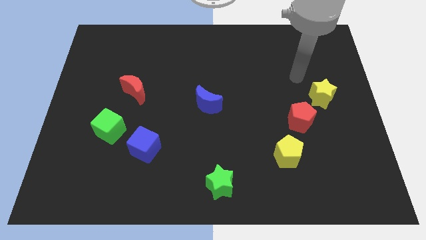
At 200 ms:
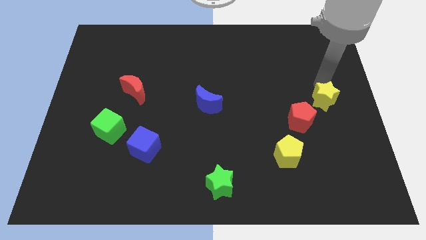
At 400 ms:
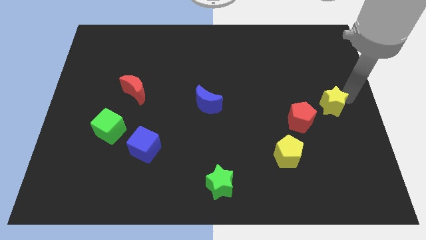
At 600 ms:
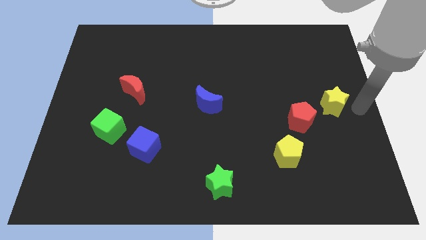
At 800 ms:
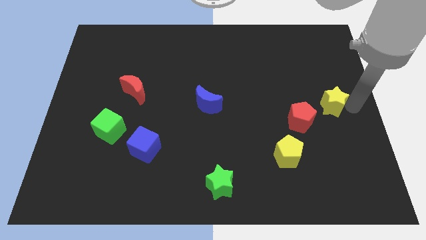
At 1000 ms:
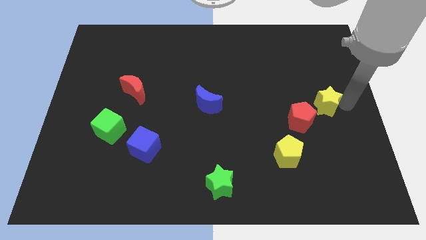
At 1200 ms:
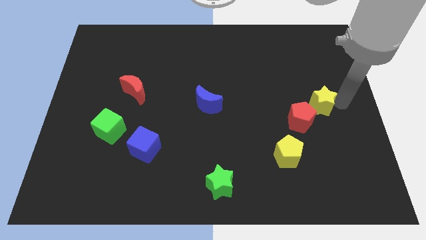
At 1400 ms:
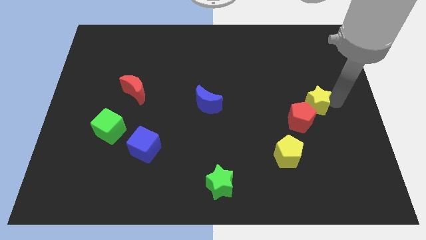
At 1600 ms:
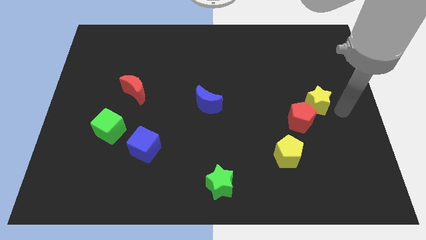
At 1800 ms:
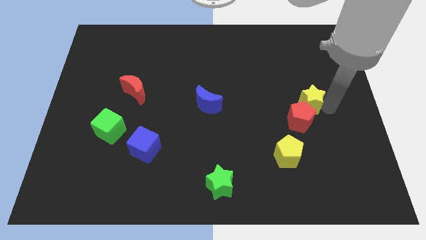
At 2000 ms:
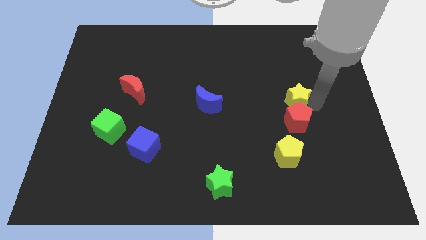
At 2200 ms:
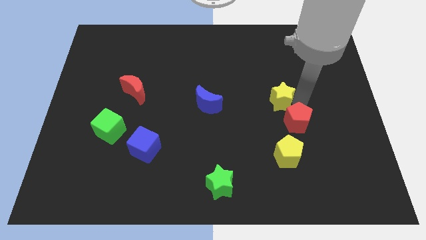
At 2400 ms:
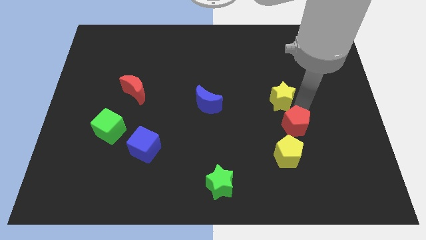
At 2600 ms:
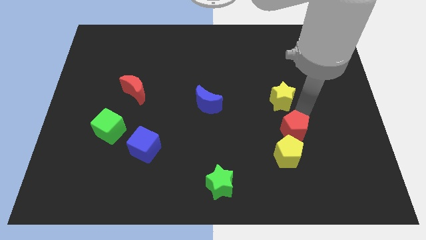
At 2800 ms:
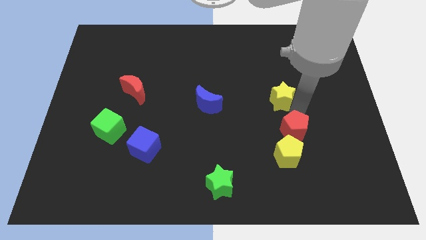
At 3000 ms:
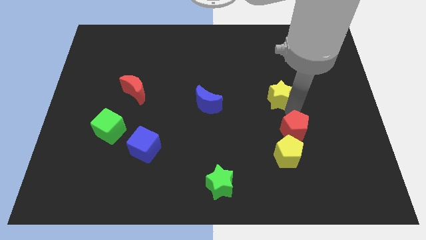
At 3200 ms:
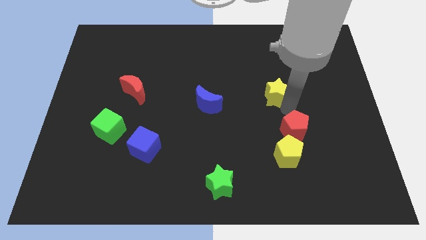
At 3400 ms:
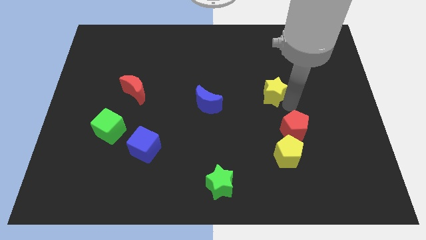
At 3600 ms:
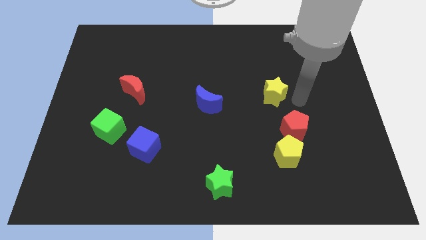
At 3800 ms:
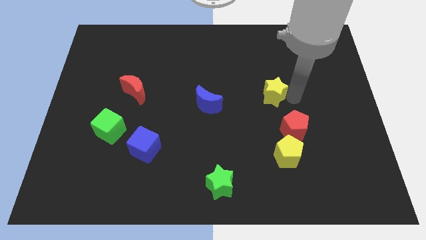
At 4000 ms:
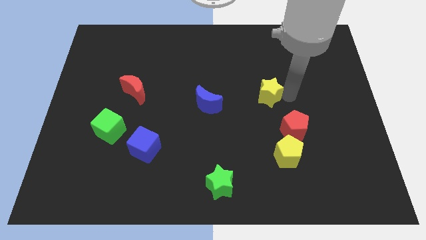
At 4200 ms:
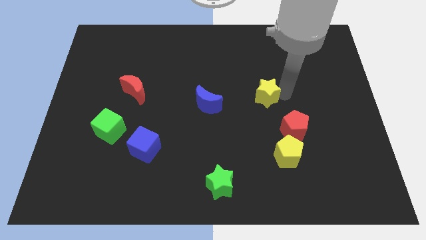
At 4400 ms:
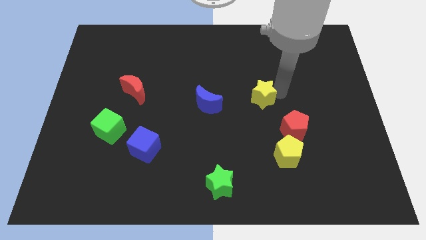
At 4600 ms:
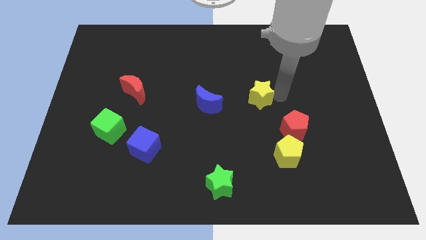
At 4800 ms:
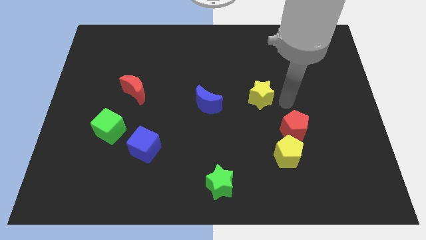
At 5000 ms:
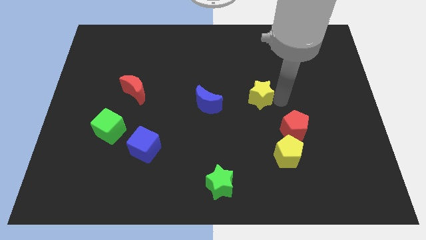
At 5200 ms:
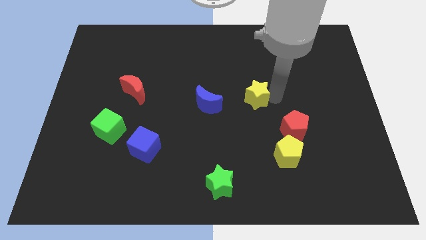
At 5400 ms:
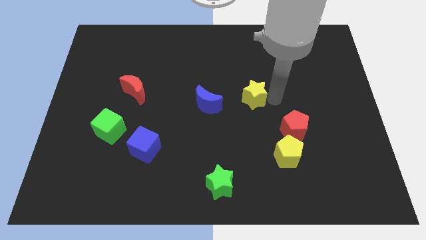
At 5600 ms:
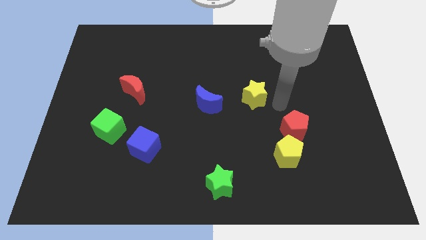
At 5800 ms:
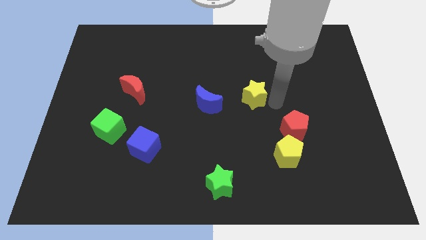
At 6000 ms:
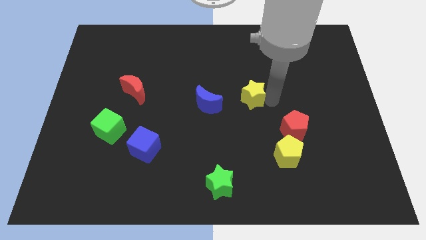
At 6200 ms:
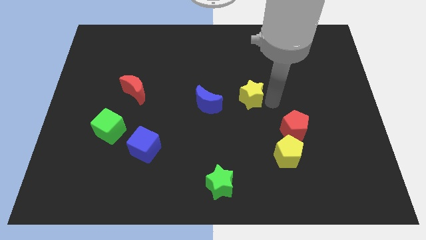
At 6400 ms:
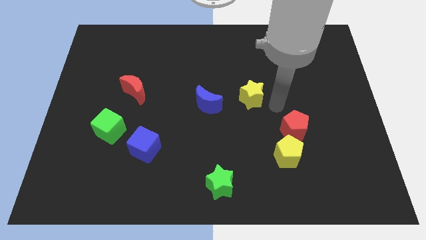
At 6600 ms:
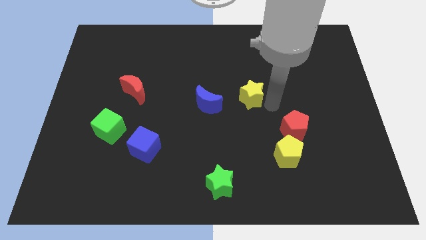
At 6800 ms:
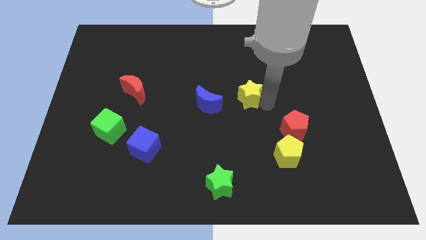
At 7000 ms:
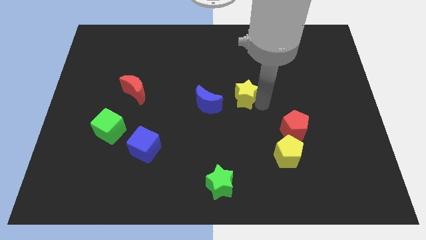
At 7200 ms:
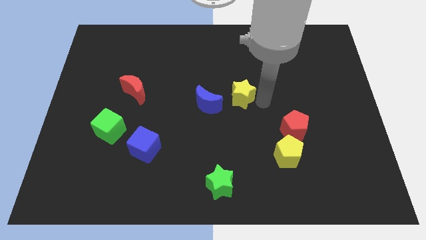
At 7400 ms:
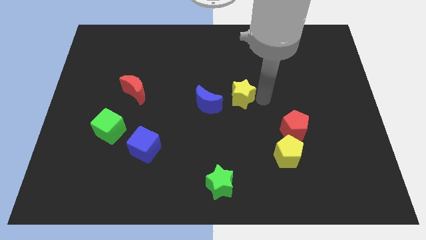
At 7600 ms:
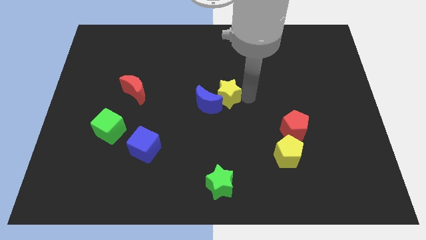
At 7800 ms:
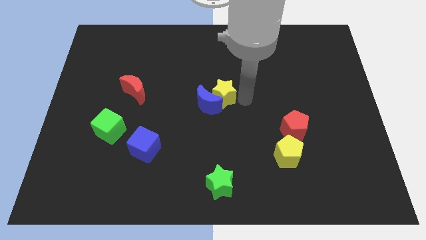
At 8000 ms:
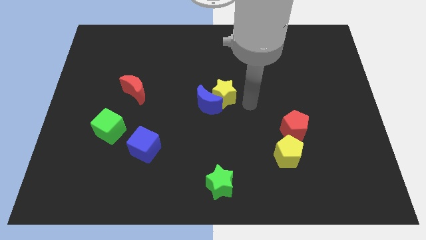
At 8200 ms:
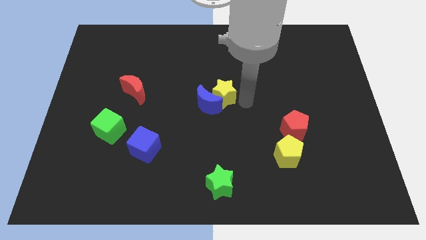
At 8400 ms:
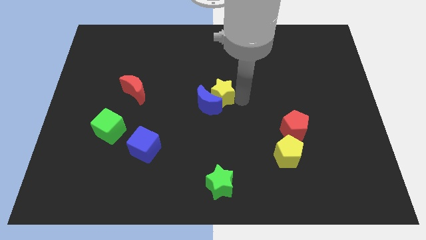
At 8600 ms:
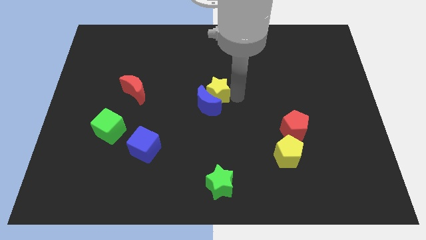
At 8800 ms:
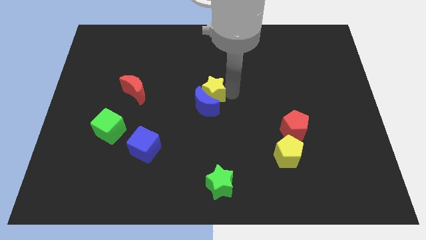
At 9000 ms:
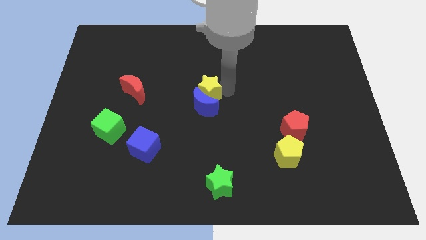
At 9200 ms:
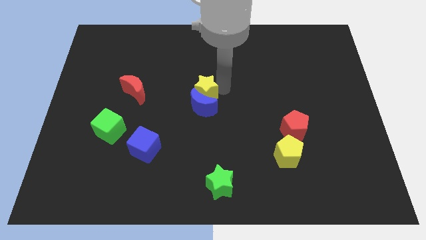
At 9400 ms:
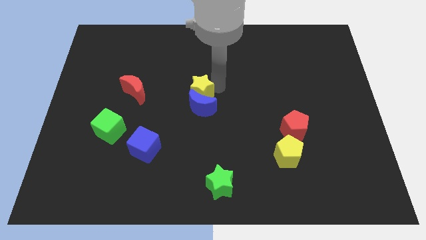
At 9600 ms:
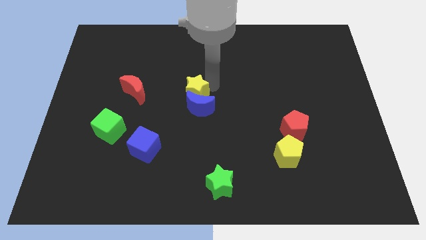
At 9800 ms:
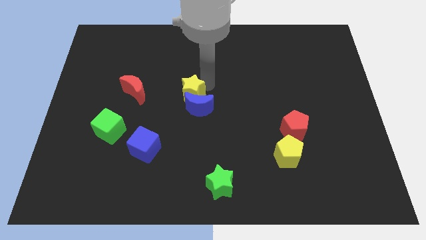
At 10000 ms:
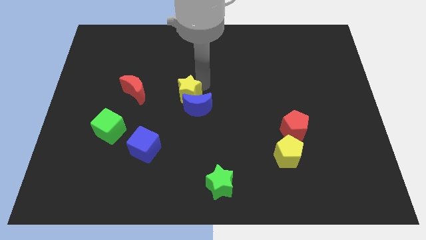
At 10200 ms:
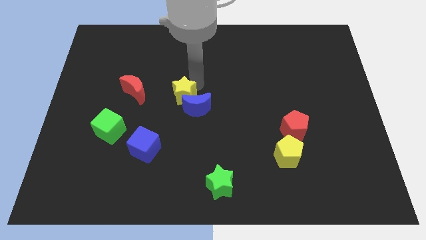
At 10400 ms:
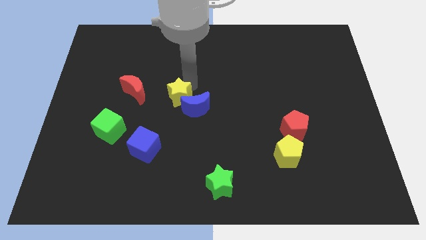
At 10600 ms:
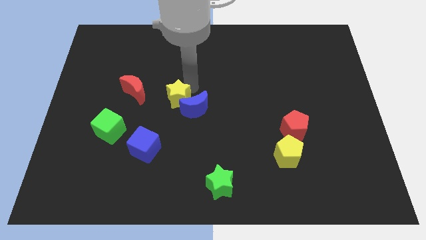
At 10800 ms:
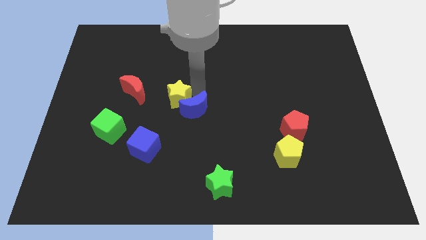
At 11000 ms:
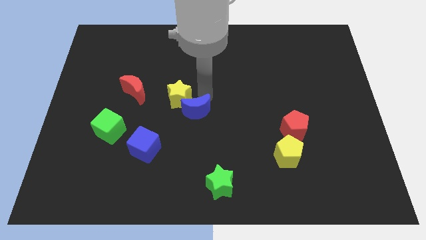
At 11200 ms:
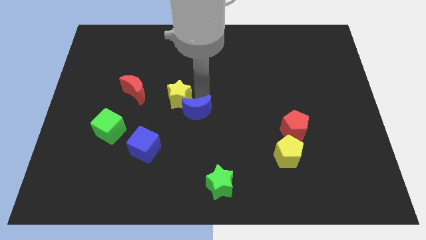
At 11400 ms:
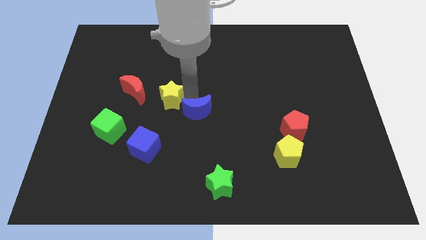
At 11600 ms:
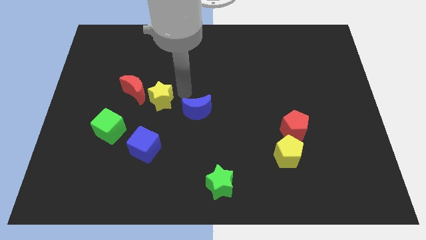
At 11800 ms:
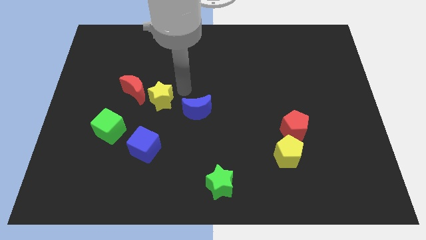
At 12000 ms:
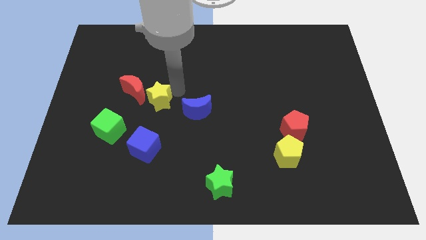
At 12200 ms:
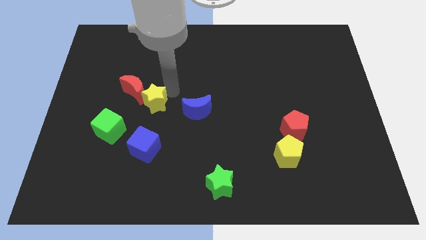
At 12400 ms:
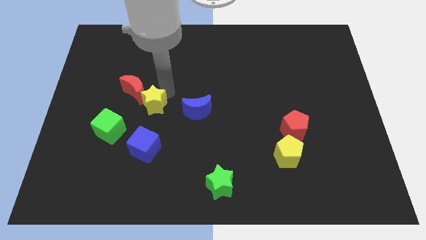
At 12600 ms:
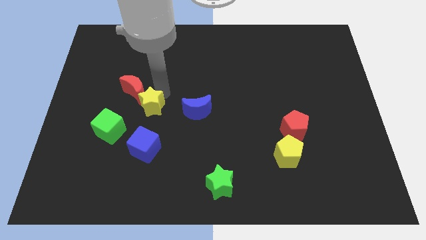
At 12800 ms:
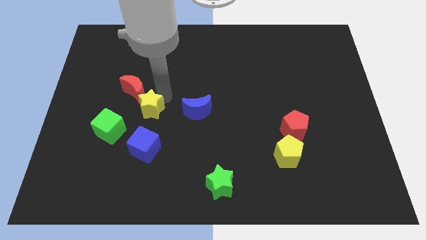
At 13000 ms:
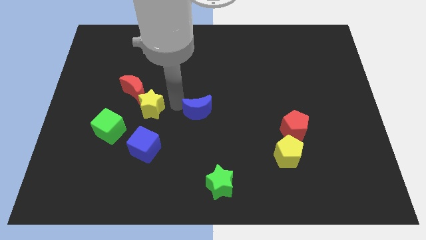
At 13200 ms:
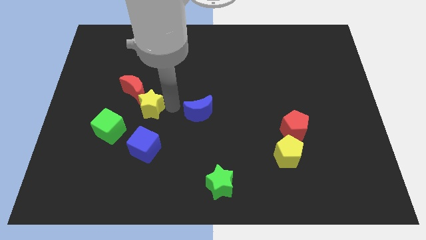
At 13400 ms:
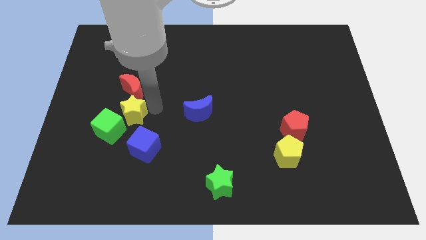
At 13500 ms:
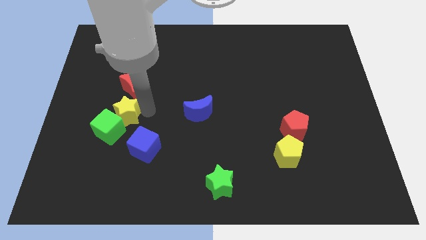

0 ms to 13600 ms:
move the yellow star to the bottom left side of the red moon
